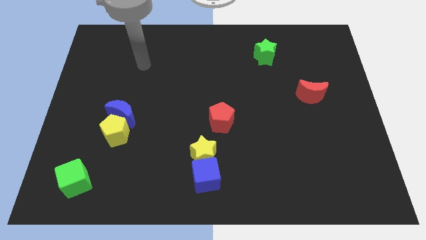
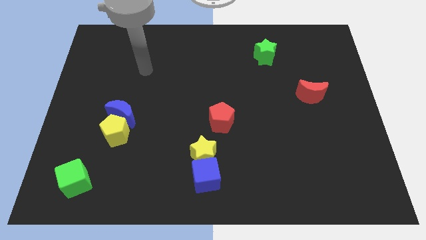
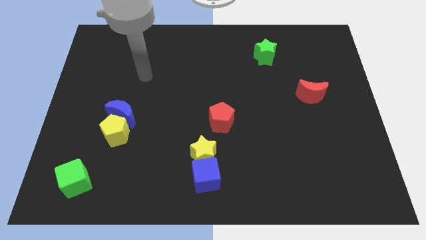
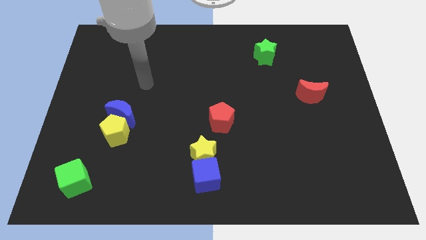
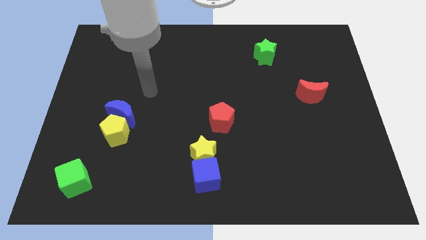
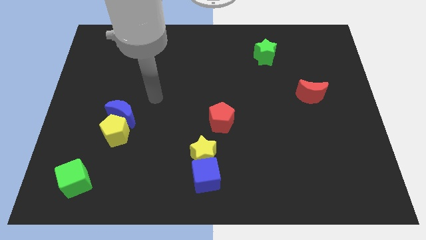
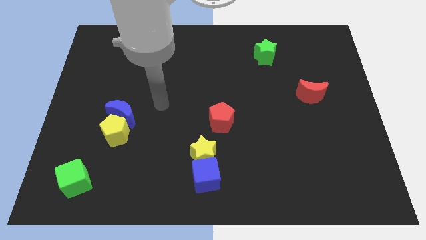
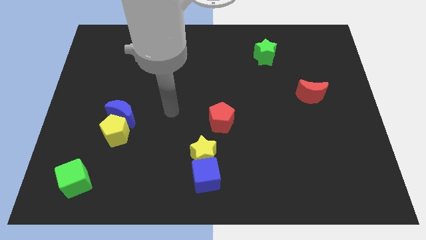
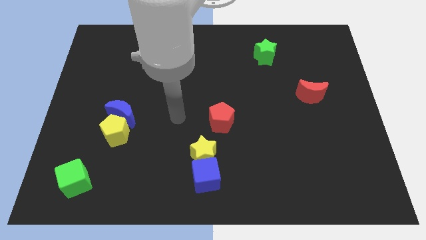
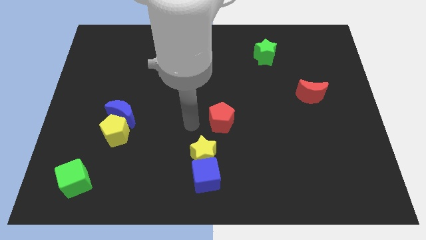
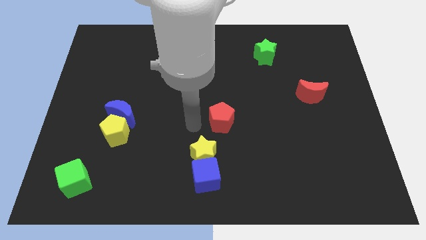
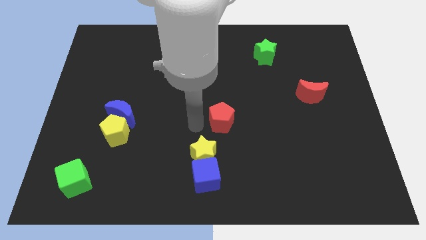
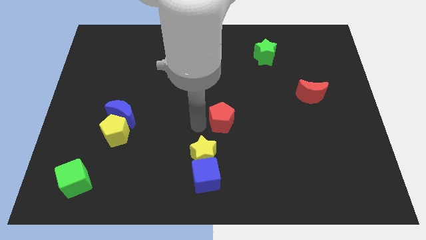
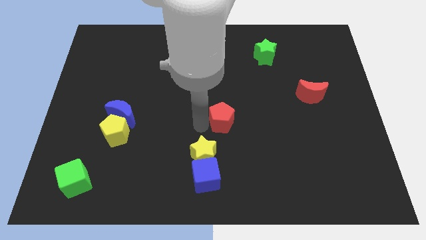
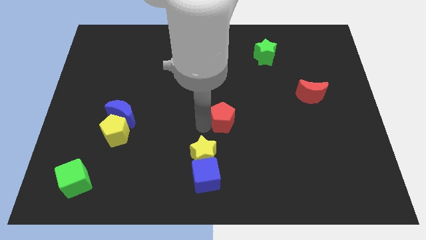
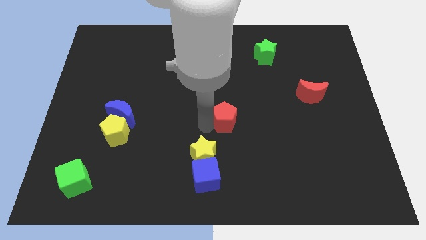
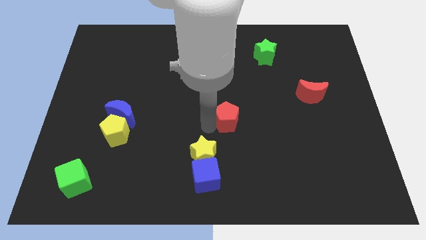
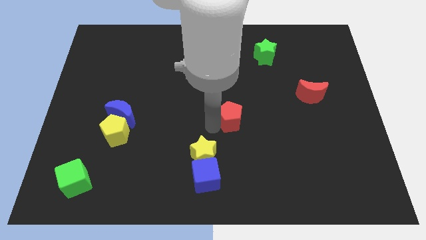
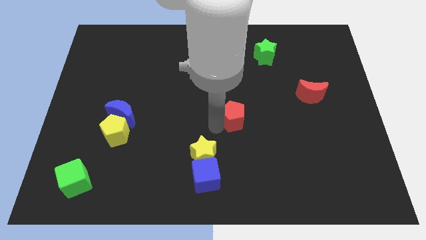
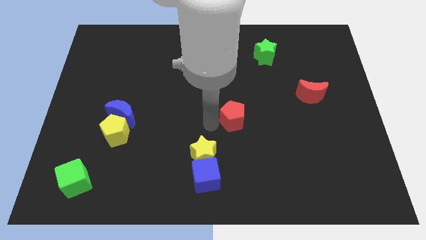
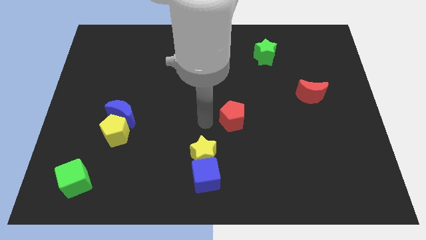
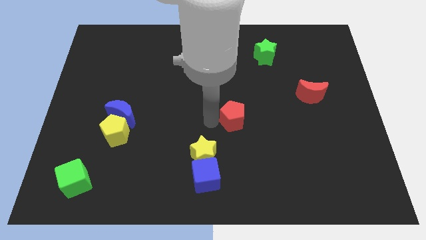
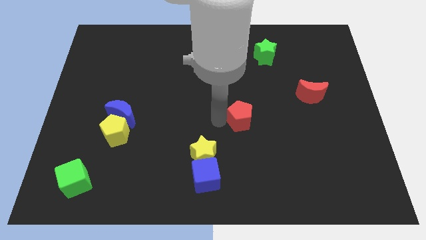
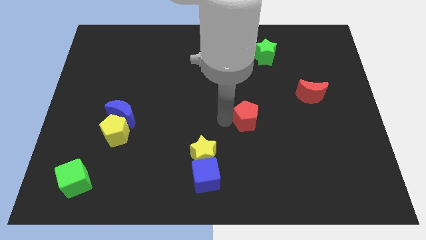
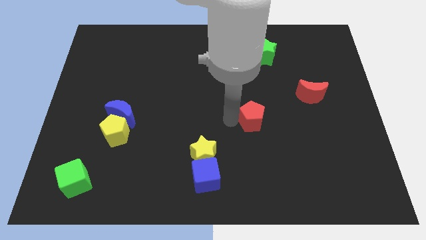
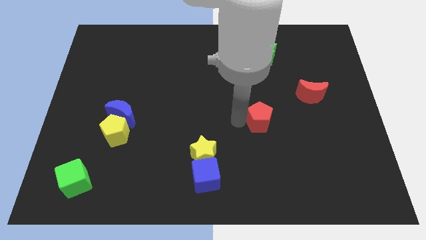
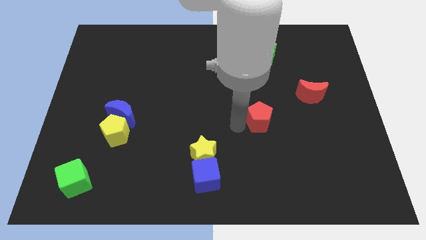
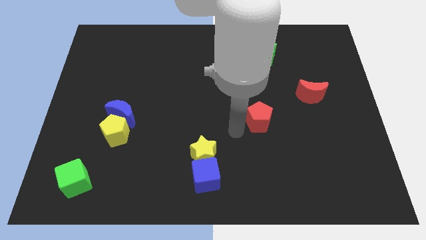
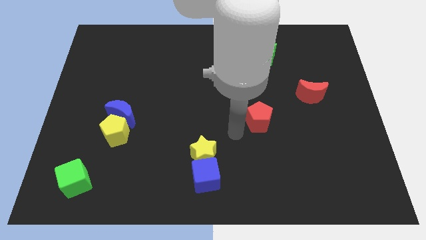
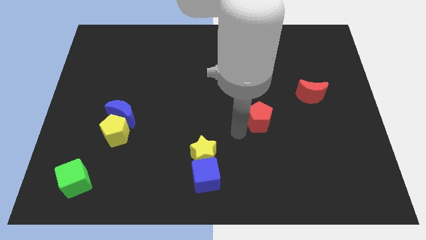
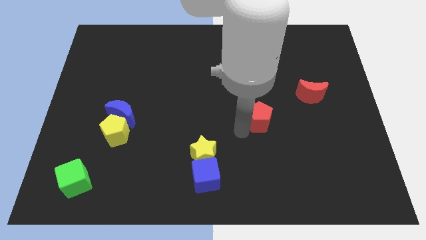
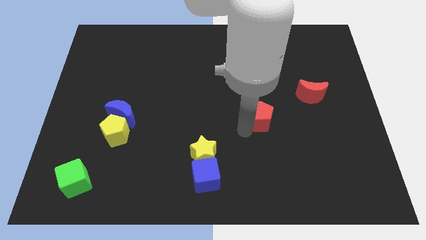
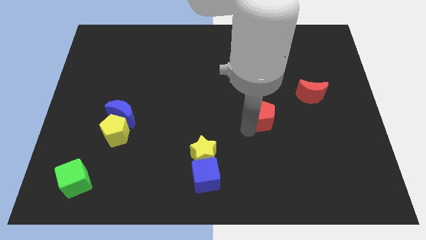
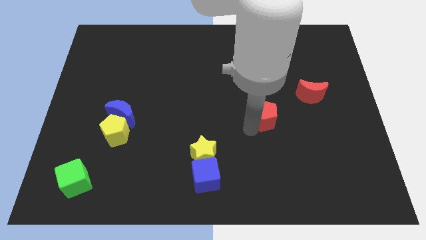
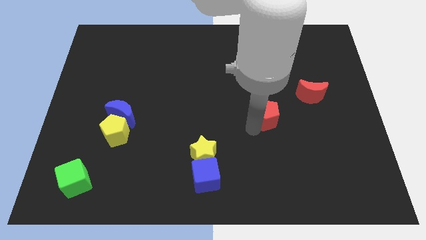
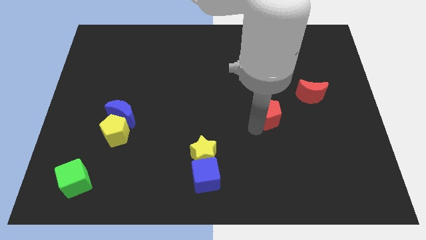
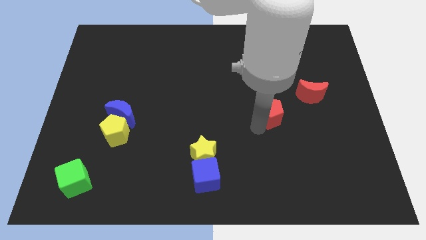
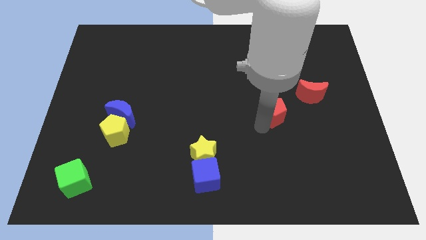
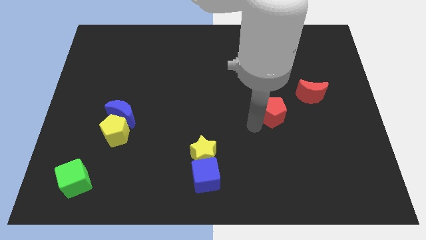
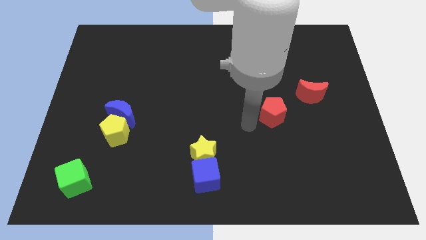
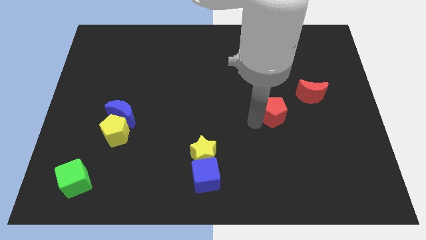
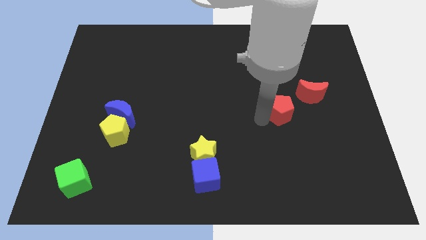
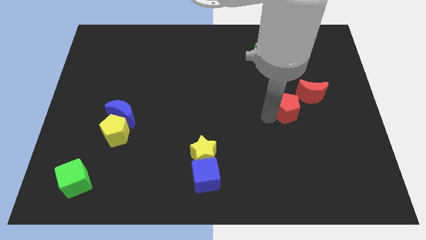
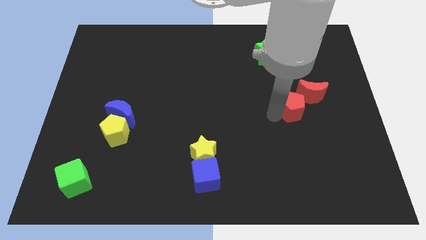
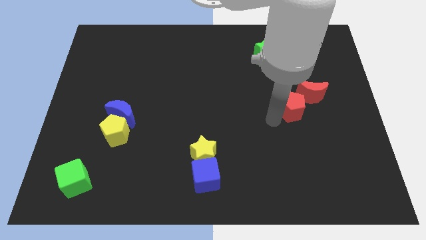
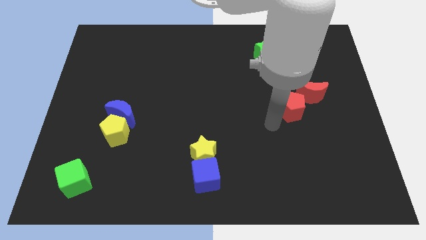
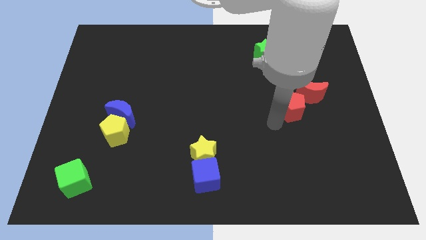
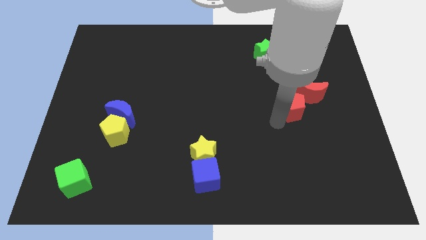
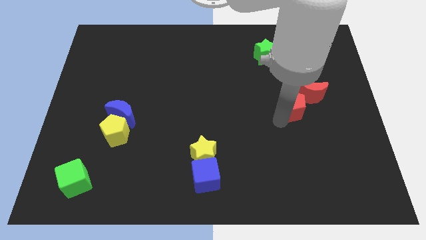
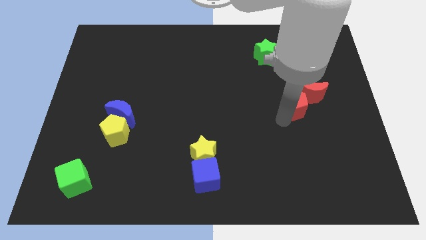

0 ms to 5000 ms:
slide the red pentagon towards the red moon

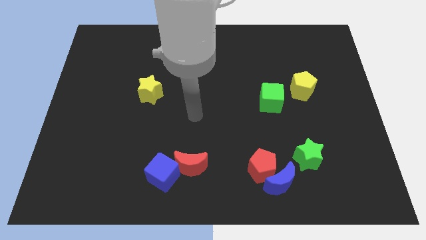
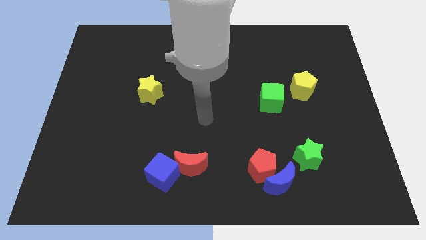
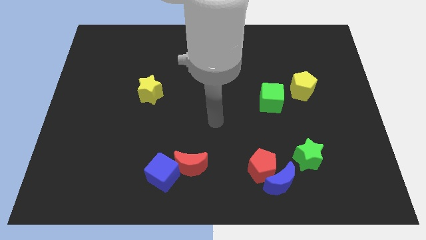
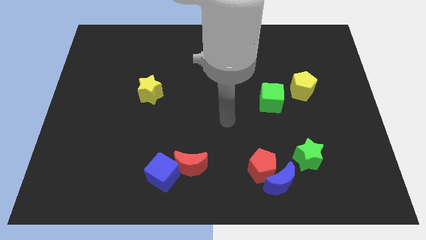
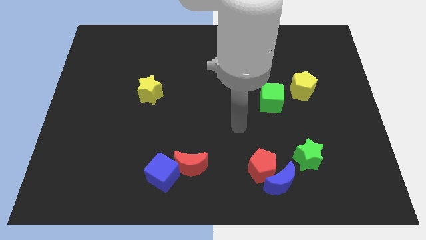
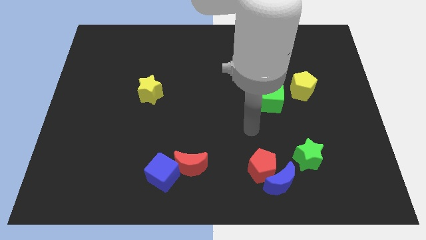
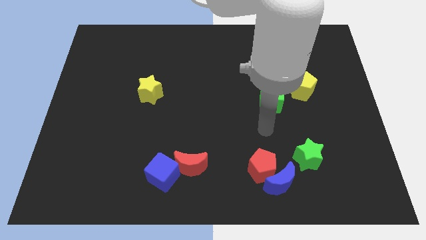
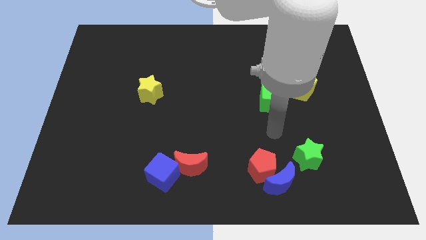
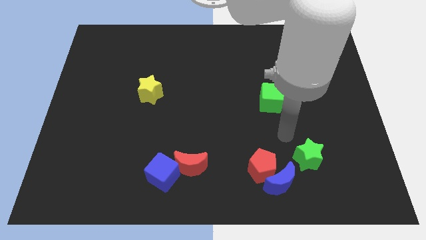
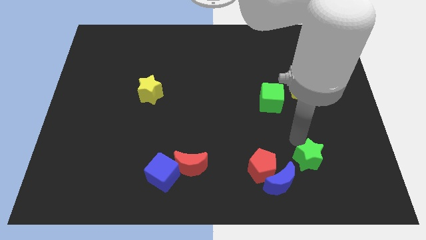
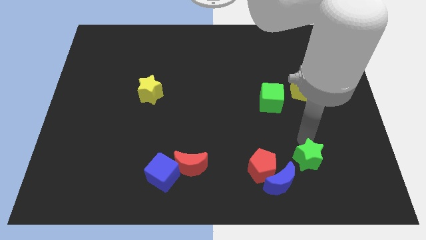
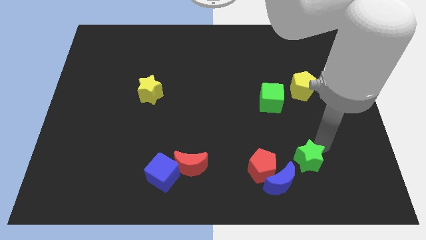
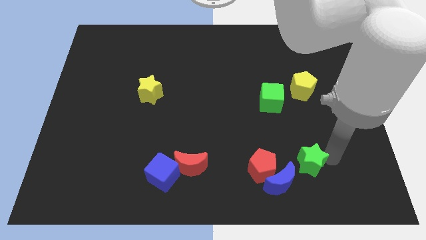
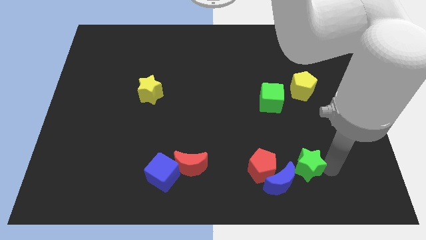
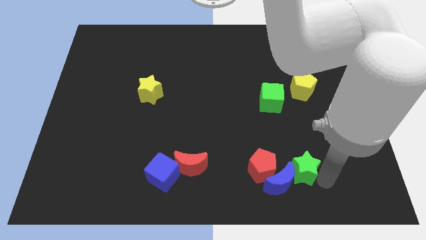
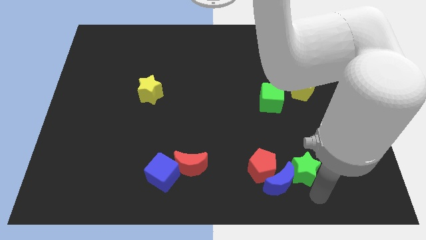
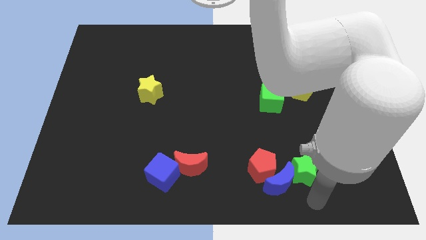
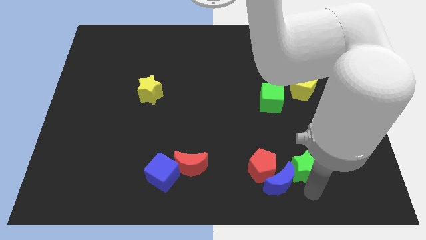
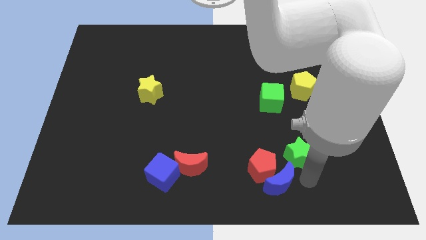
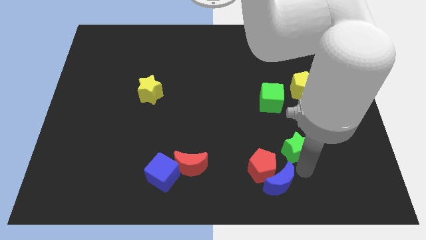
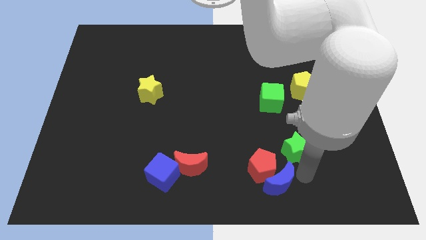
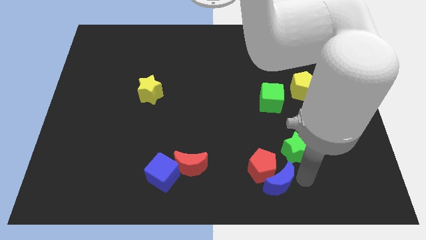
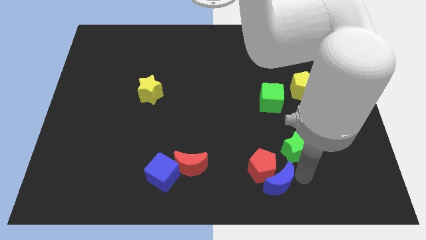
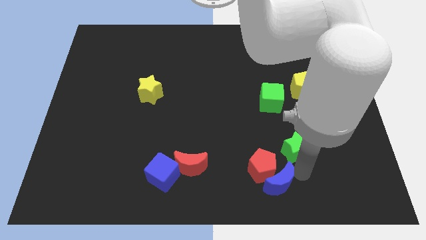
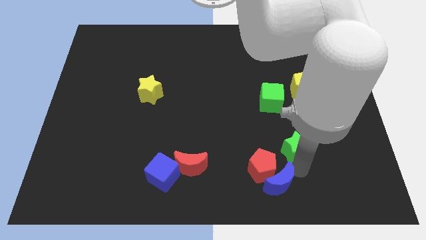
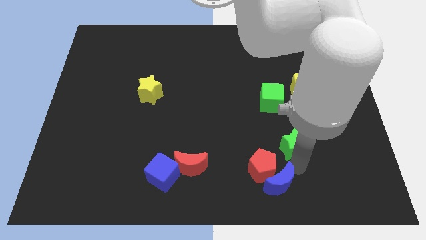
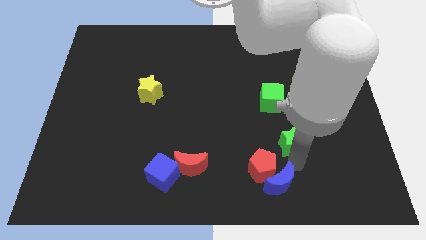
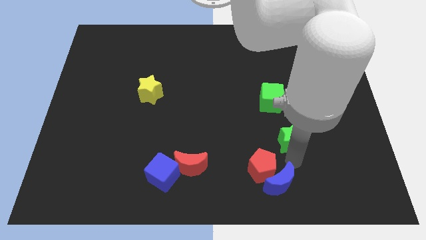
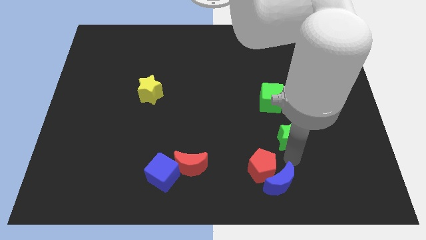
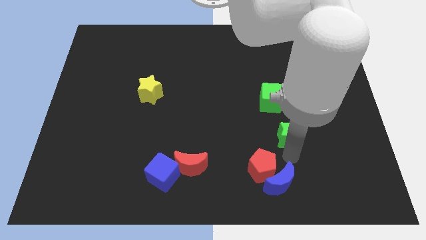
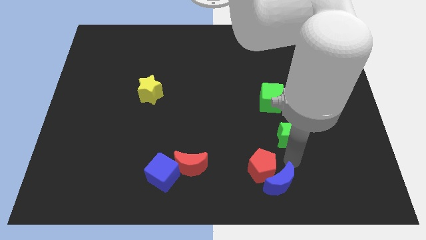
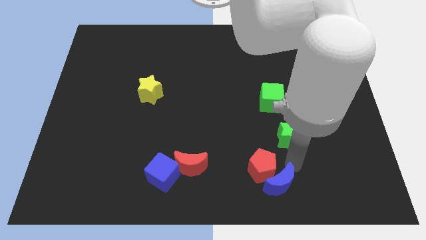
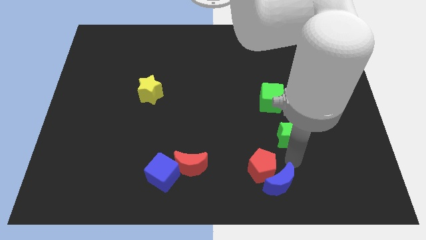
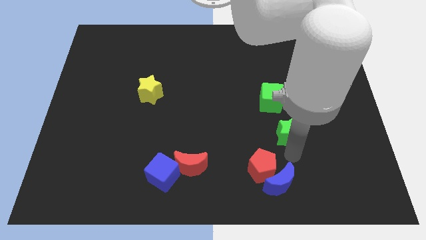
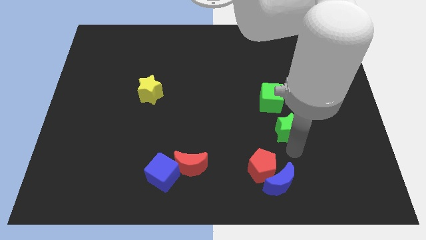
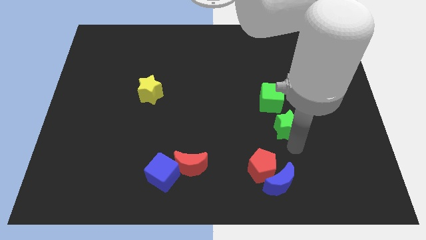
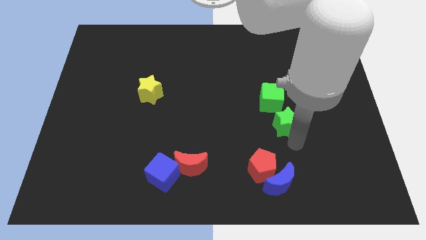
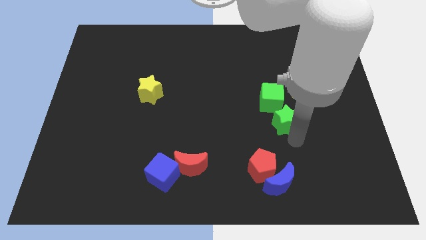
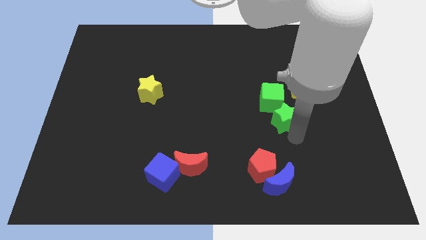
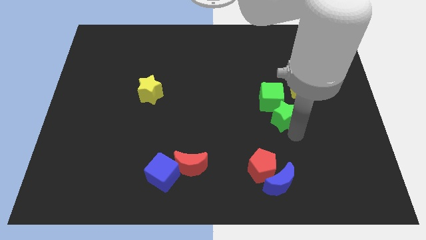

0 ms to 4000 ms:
push the green star next to the green cube
